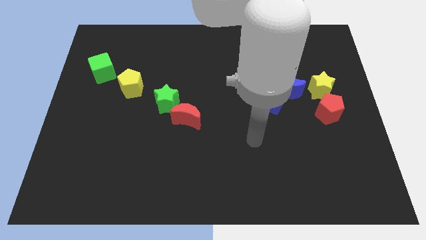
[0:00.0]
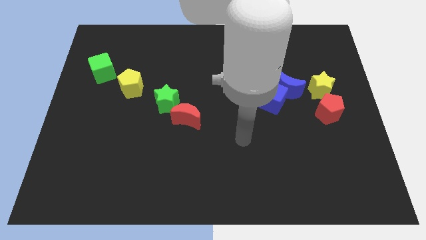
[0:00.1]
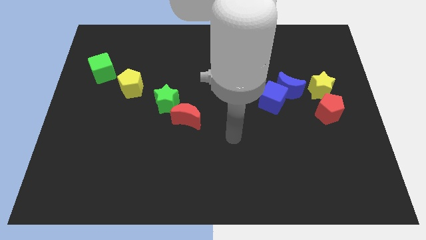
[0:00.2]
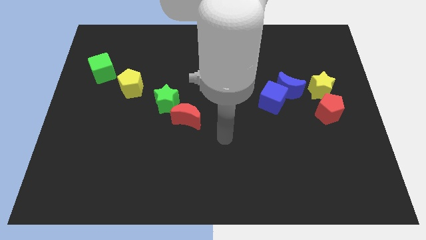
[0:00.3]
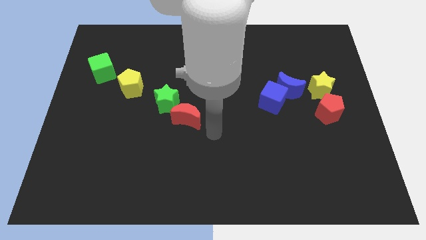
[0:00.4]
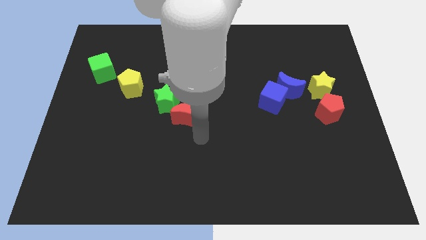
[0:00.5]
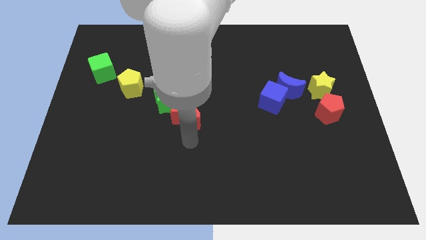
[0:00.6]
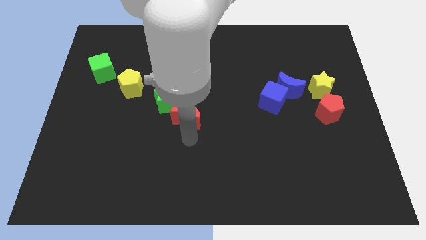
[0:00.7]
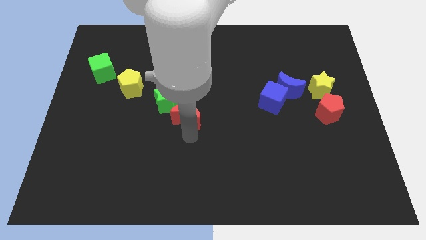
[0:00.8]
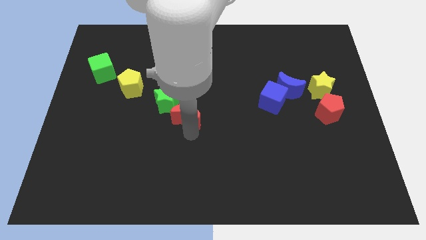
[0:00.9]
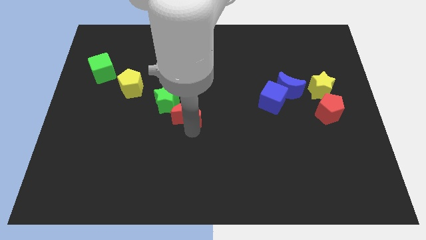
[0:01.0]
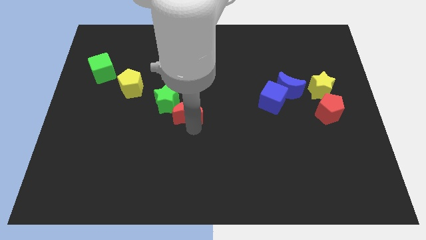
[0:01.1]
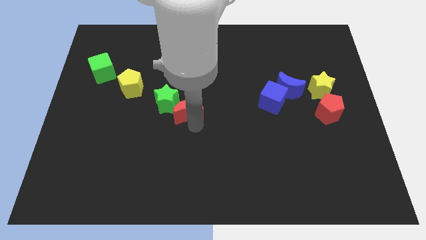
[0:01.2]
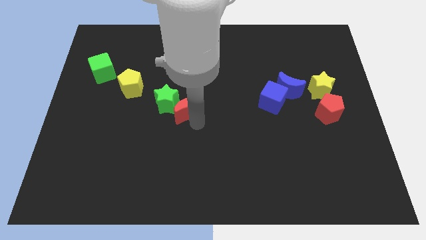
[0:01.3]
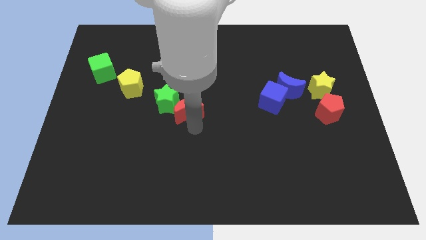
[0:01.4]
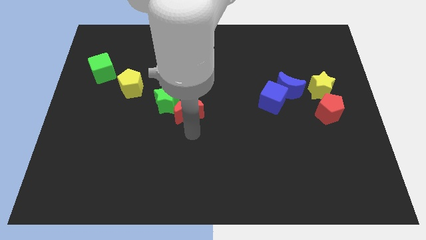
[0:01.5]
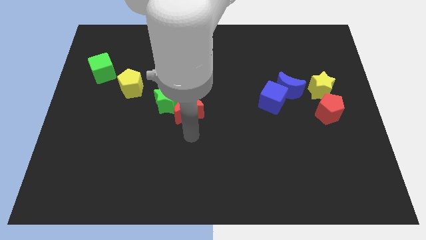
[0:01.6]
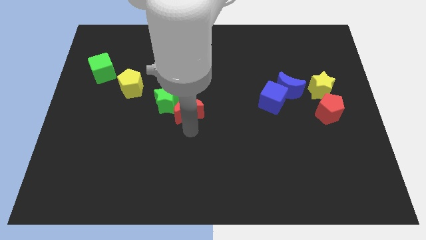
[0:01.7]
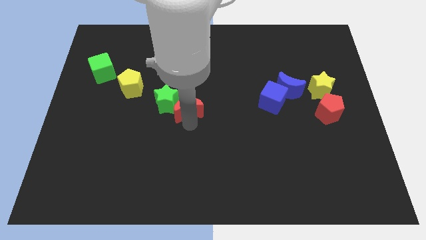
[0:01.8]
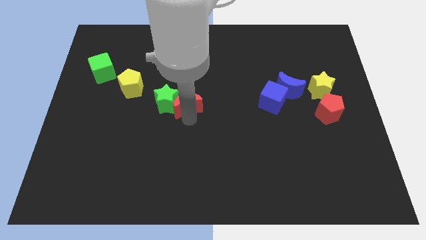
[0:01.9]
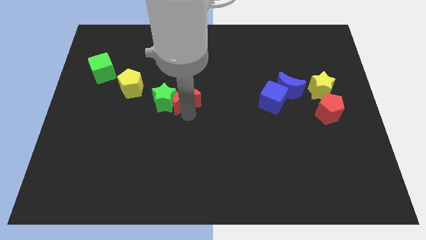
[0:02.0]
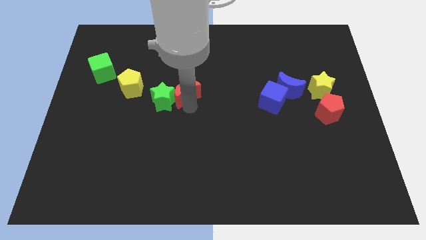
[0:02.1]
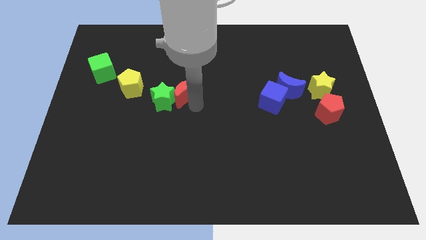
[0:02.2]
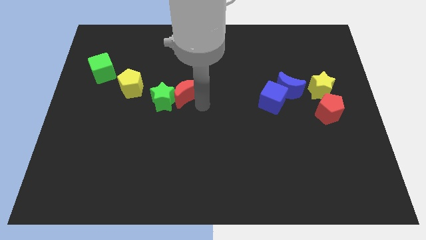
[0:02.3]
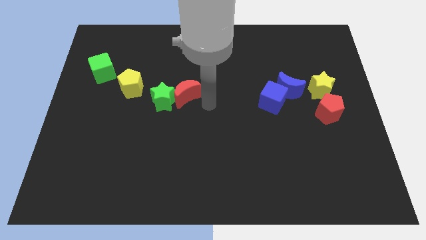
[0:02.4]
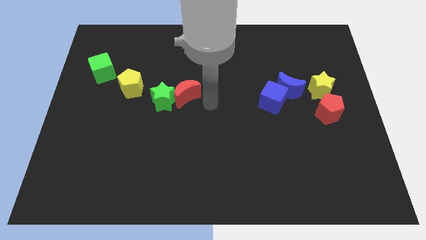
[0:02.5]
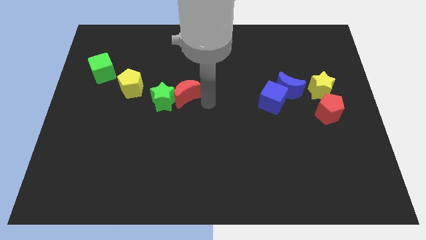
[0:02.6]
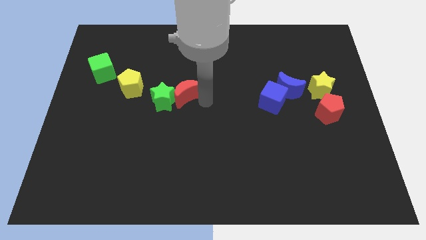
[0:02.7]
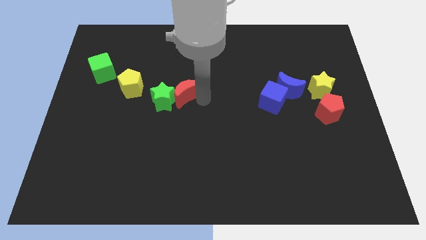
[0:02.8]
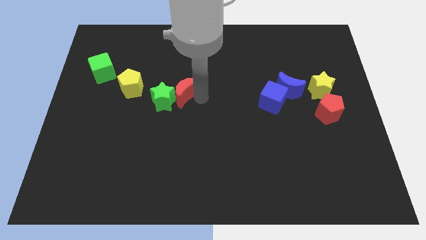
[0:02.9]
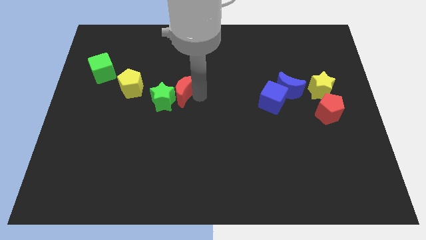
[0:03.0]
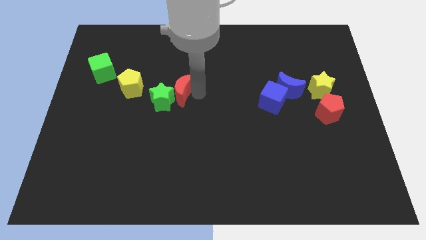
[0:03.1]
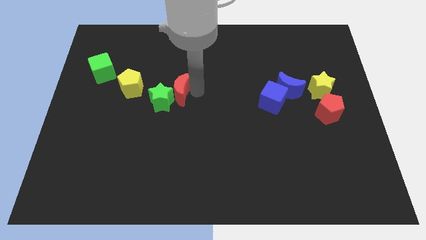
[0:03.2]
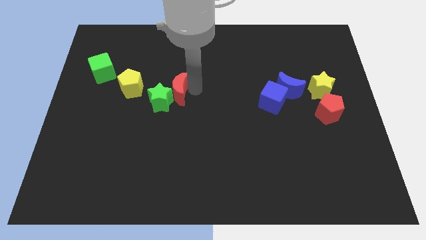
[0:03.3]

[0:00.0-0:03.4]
slightly push the red moon upwards and to the left

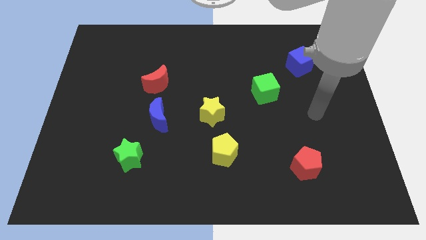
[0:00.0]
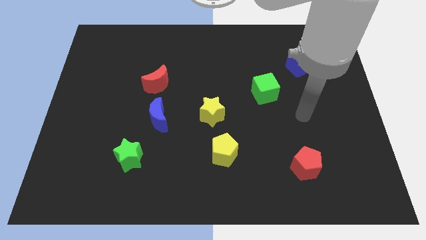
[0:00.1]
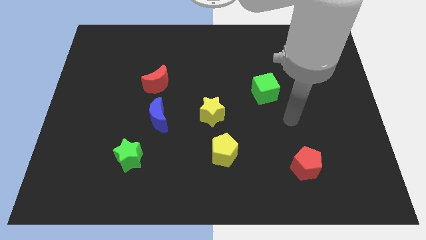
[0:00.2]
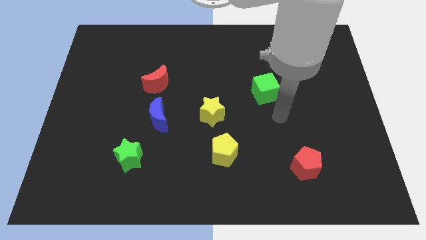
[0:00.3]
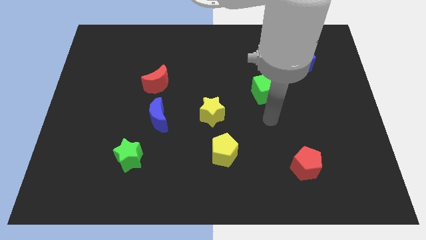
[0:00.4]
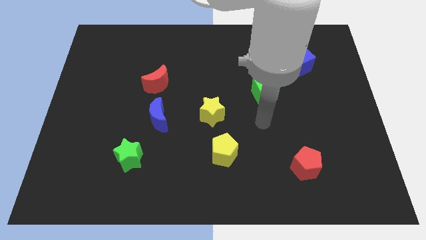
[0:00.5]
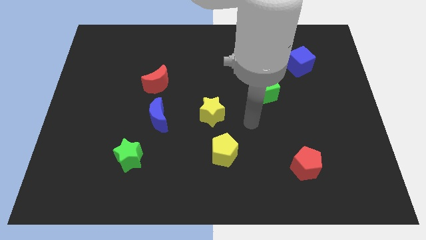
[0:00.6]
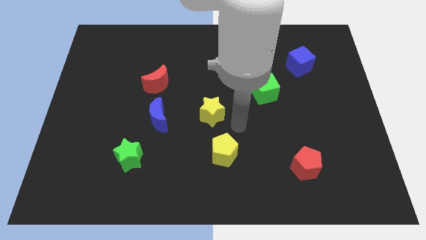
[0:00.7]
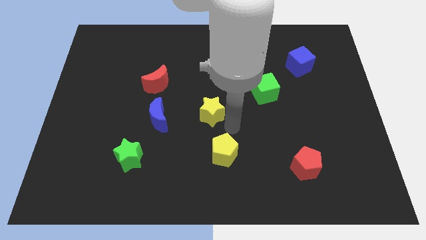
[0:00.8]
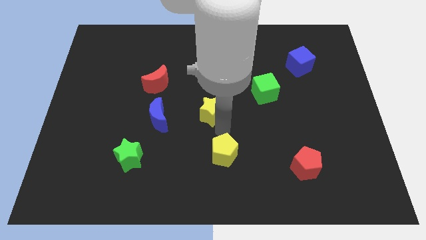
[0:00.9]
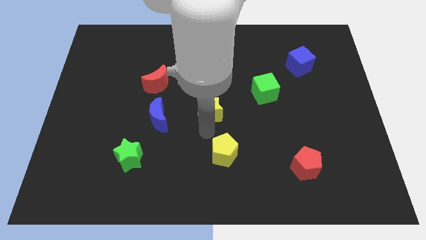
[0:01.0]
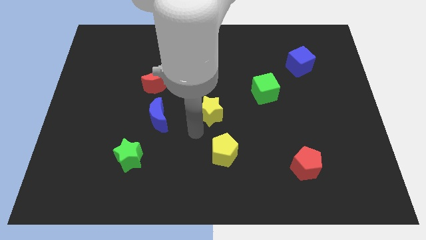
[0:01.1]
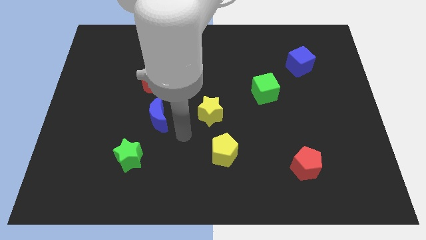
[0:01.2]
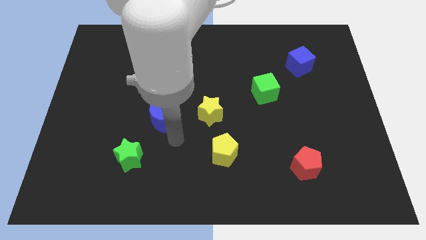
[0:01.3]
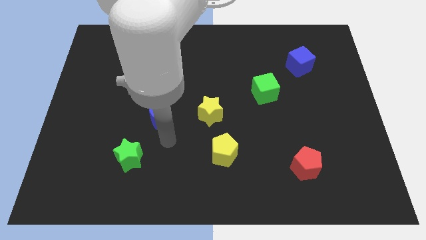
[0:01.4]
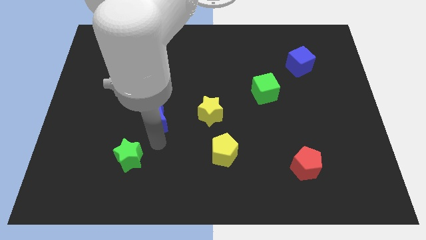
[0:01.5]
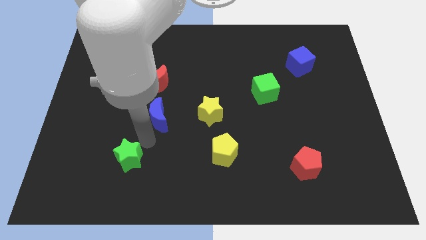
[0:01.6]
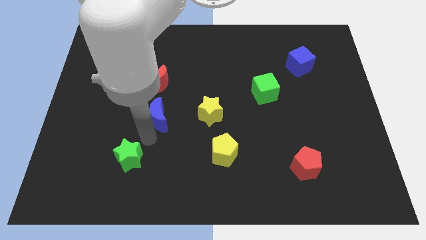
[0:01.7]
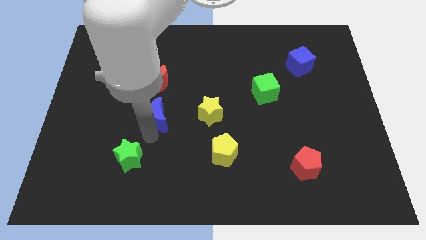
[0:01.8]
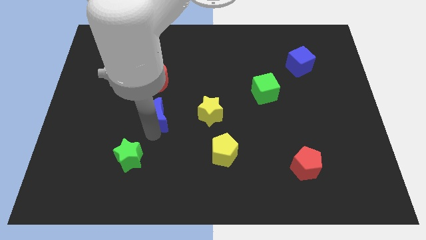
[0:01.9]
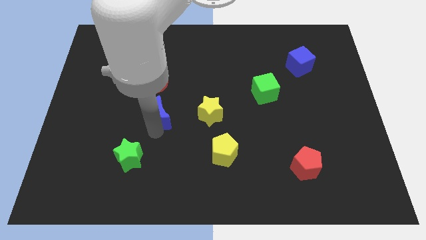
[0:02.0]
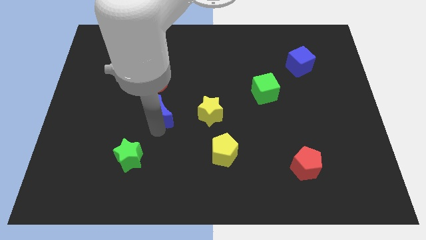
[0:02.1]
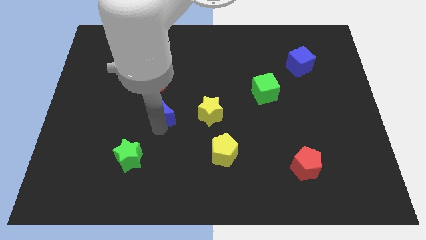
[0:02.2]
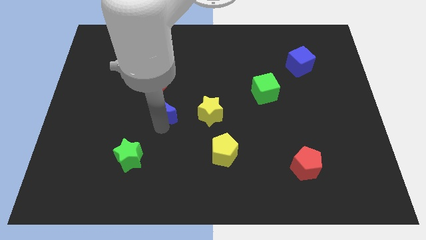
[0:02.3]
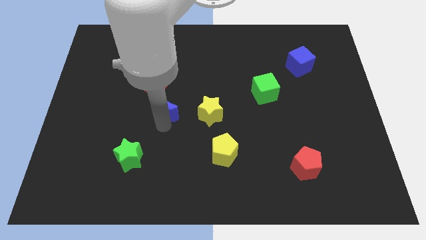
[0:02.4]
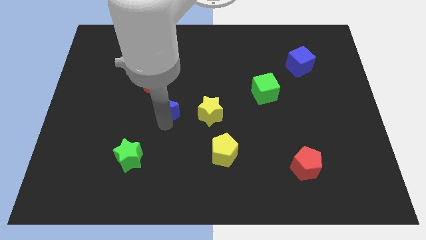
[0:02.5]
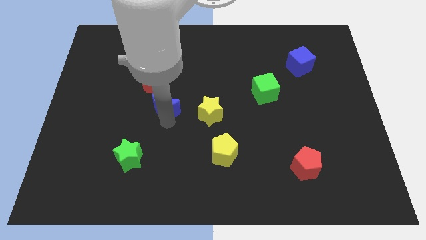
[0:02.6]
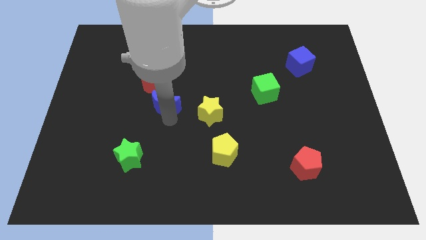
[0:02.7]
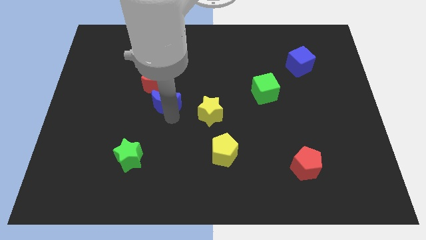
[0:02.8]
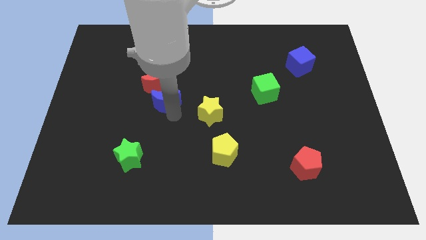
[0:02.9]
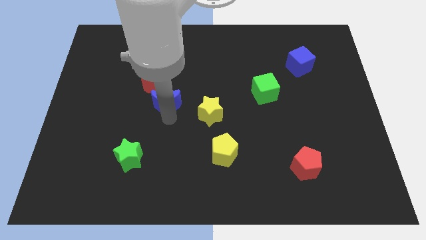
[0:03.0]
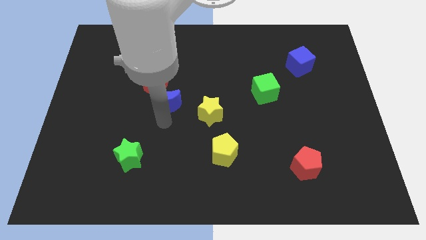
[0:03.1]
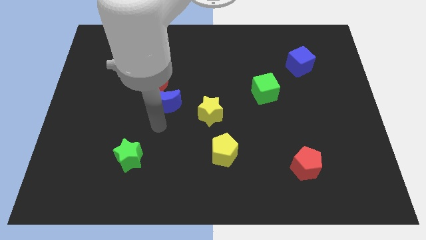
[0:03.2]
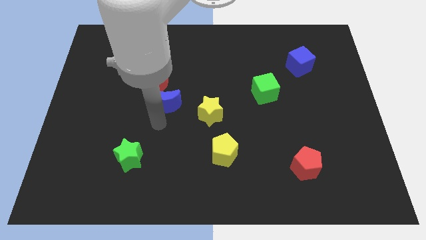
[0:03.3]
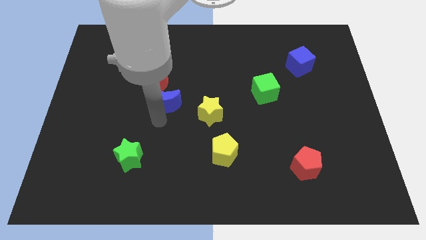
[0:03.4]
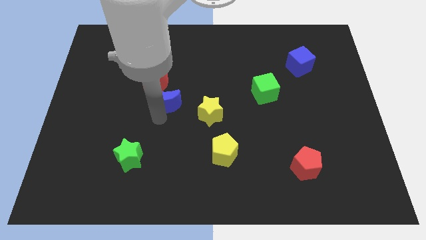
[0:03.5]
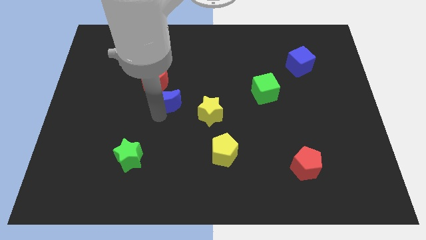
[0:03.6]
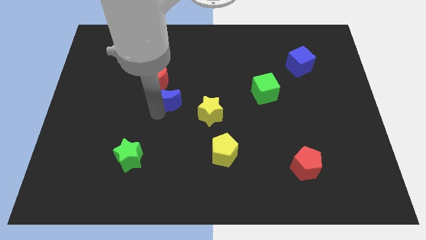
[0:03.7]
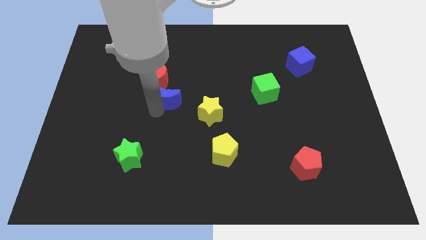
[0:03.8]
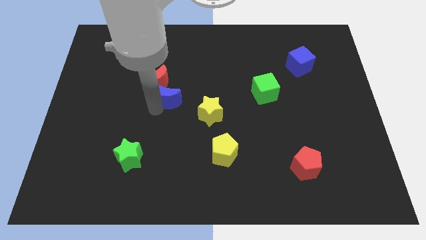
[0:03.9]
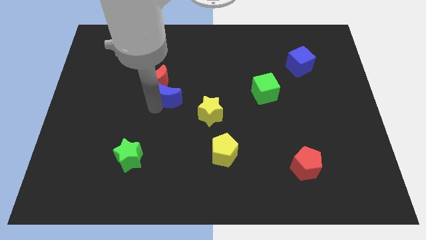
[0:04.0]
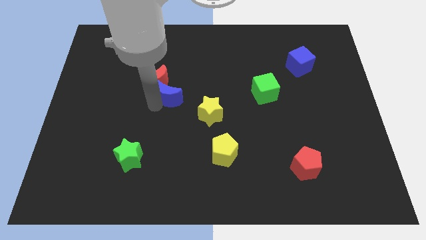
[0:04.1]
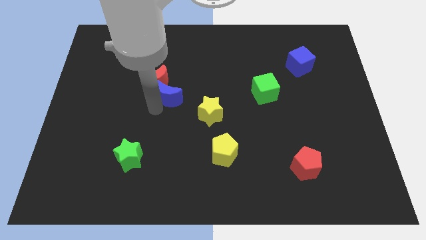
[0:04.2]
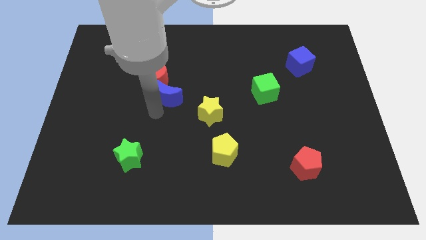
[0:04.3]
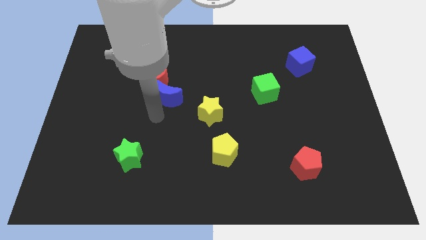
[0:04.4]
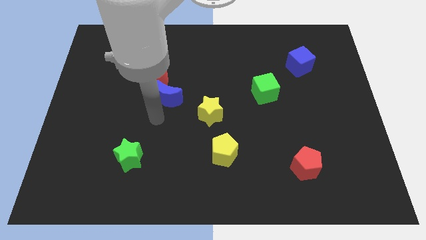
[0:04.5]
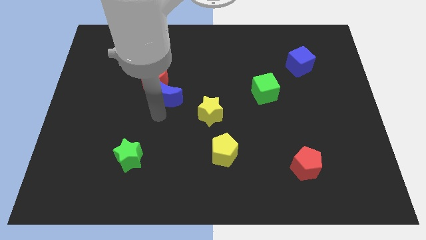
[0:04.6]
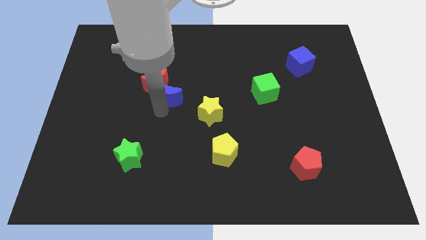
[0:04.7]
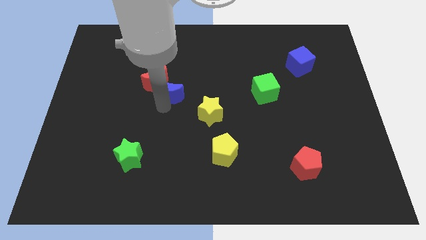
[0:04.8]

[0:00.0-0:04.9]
slide the blue moon a little upwards
